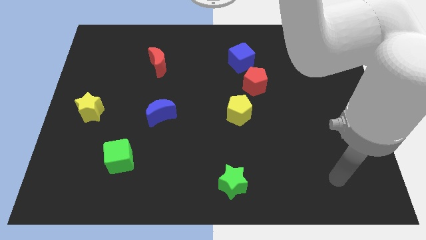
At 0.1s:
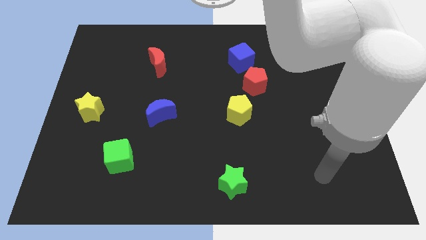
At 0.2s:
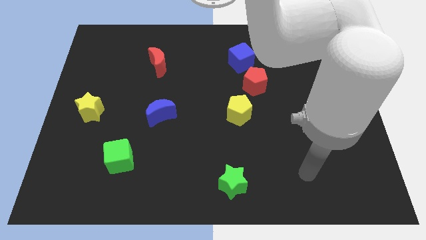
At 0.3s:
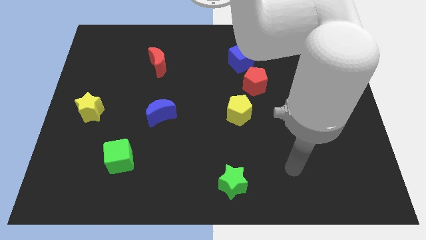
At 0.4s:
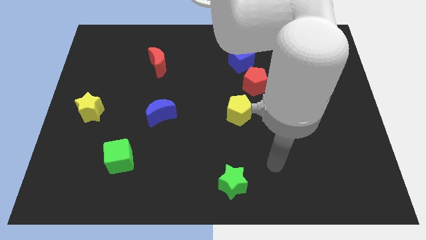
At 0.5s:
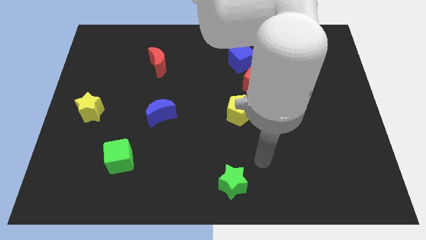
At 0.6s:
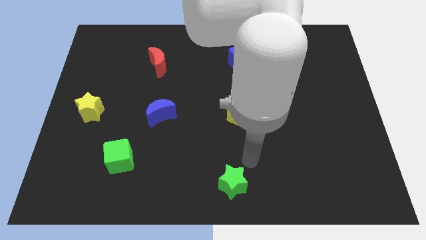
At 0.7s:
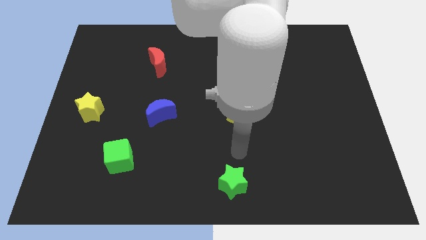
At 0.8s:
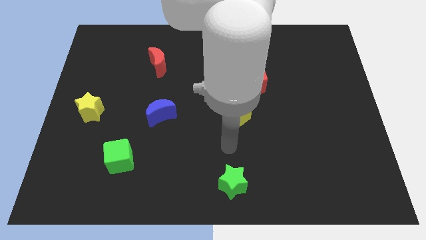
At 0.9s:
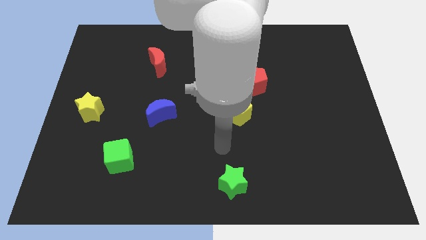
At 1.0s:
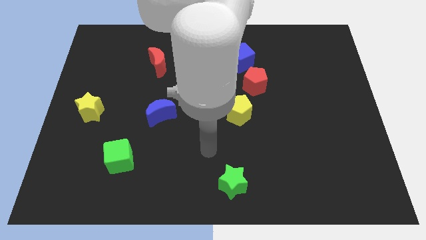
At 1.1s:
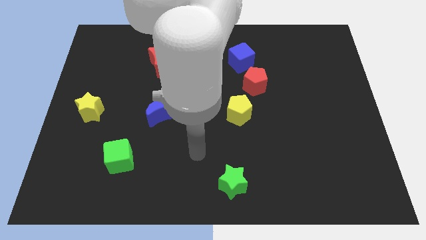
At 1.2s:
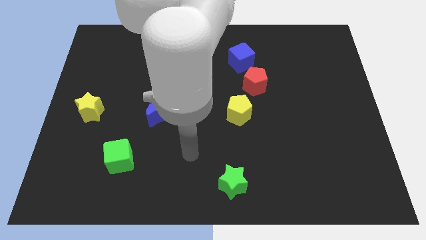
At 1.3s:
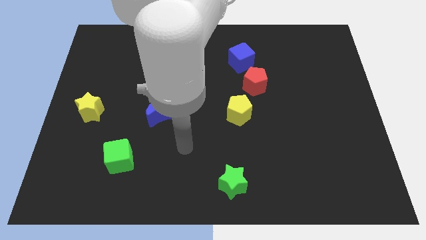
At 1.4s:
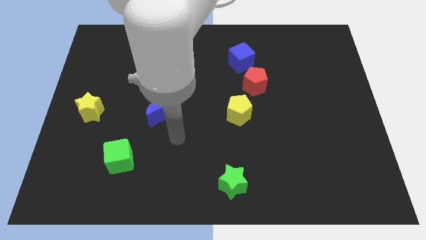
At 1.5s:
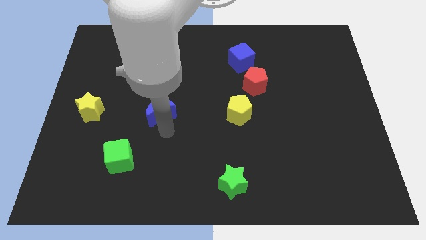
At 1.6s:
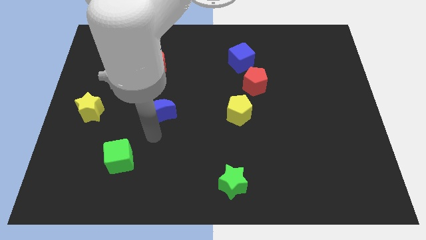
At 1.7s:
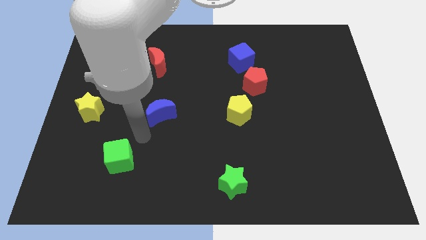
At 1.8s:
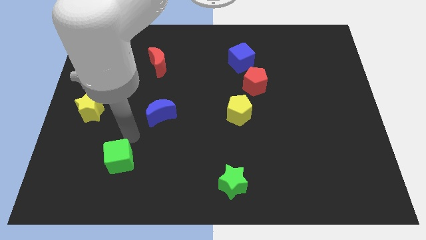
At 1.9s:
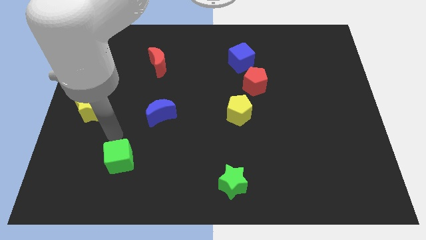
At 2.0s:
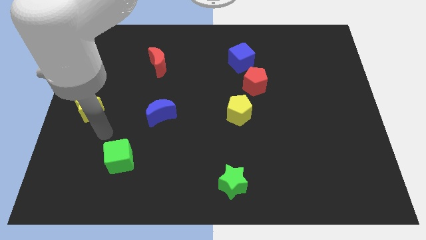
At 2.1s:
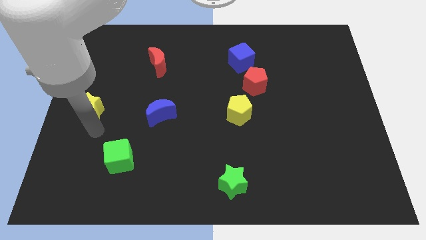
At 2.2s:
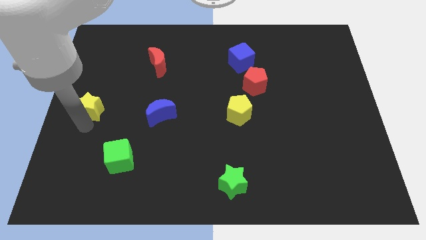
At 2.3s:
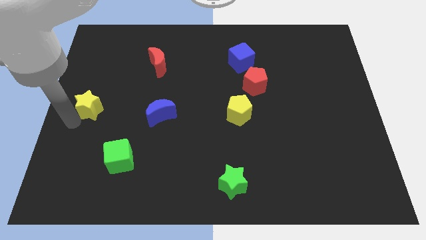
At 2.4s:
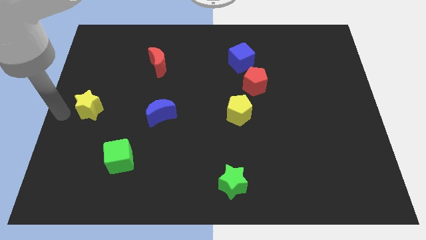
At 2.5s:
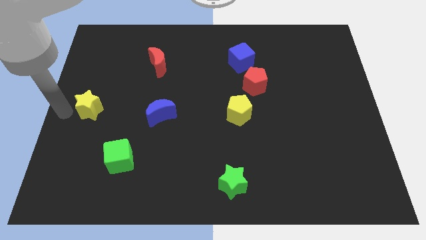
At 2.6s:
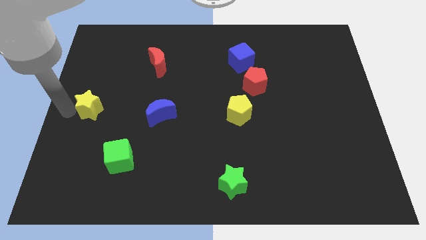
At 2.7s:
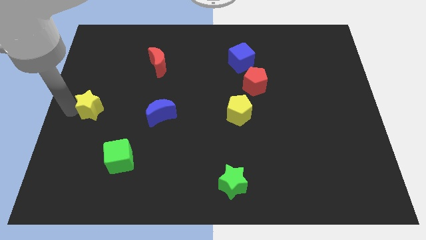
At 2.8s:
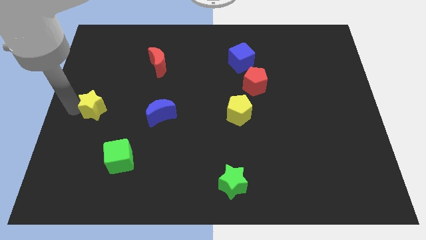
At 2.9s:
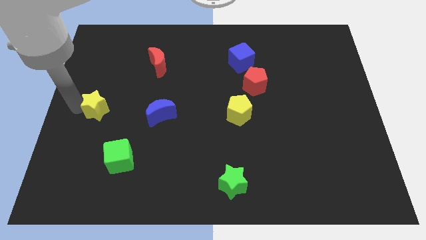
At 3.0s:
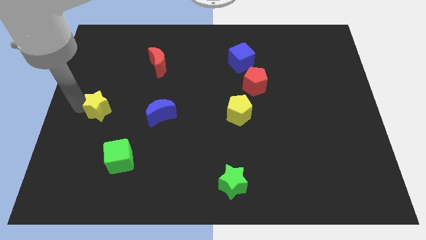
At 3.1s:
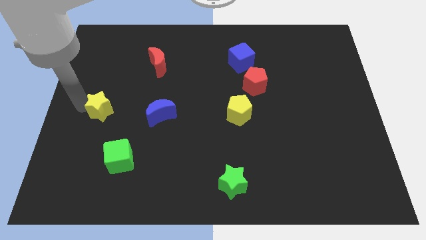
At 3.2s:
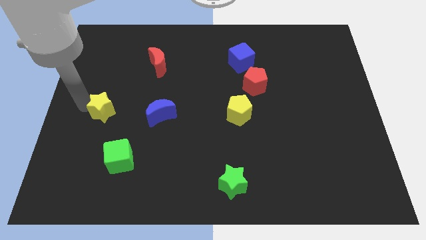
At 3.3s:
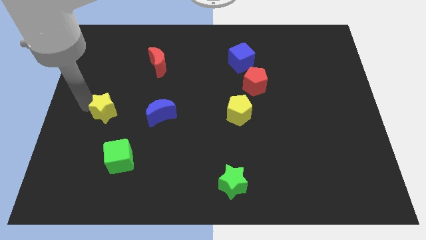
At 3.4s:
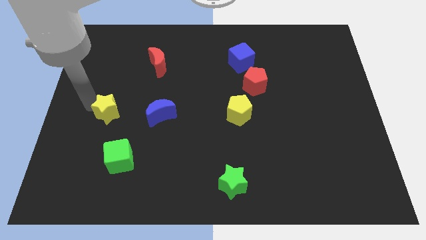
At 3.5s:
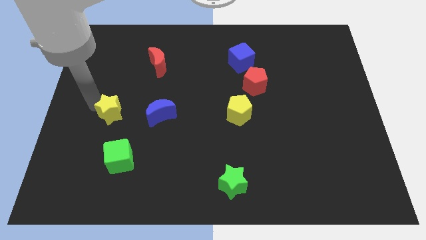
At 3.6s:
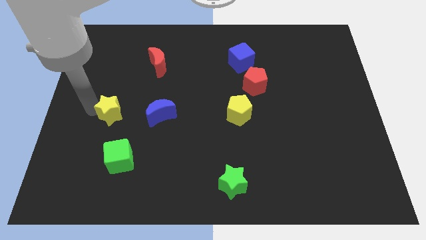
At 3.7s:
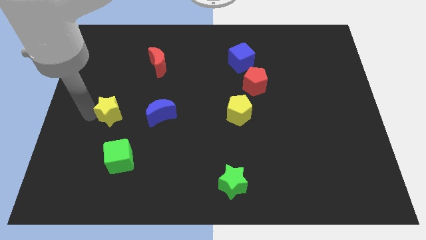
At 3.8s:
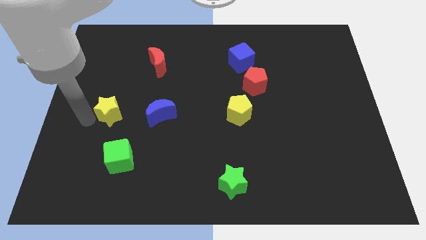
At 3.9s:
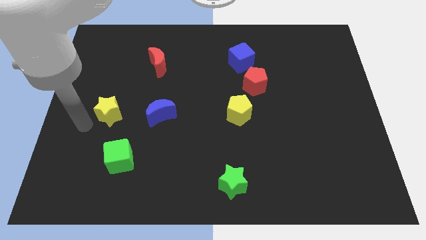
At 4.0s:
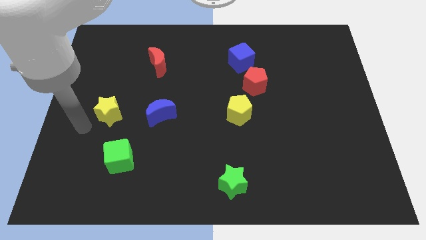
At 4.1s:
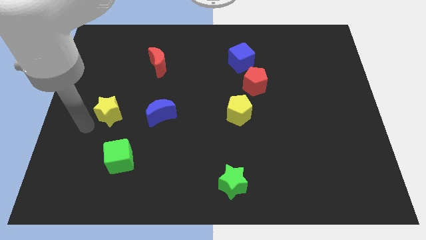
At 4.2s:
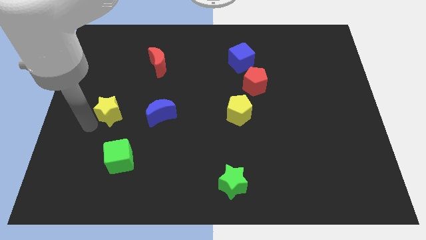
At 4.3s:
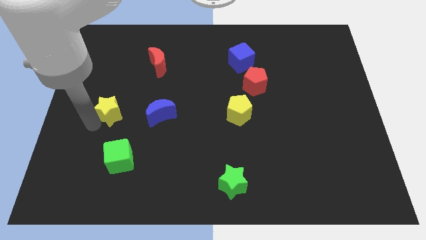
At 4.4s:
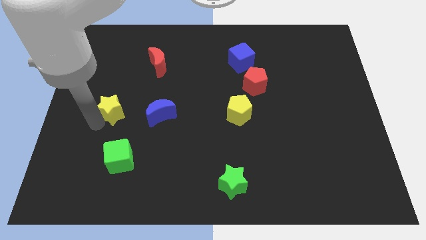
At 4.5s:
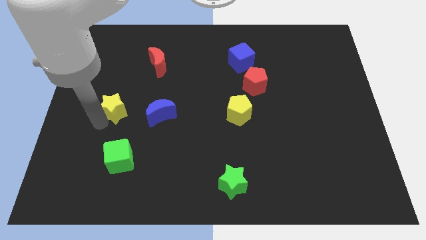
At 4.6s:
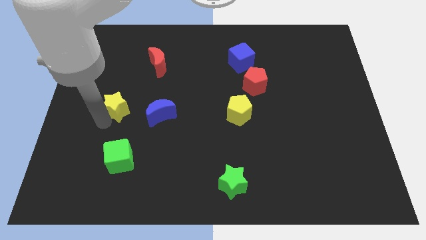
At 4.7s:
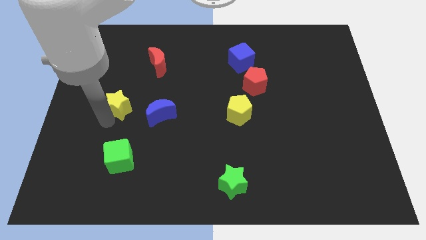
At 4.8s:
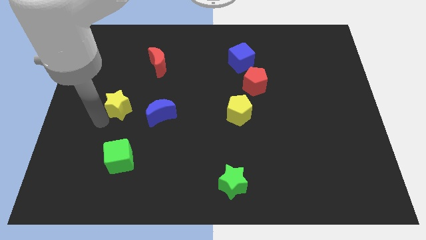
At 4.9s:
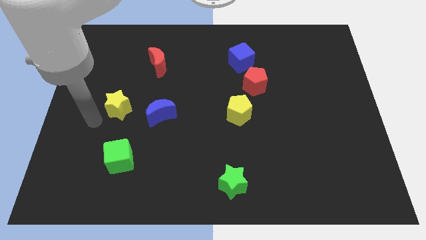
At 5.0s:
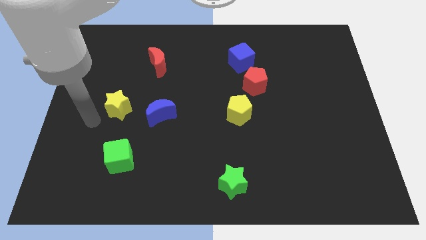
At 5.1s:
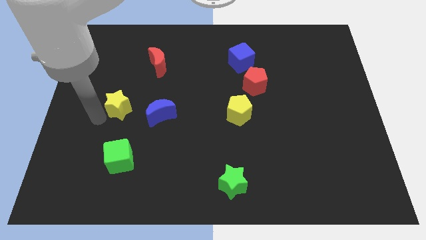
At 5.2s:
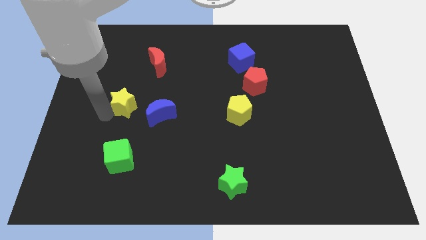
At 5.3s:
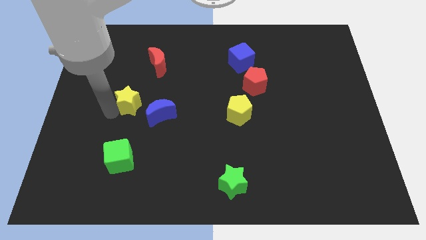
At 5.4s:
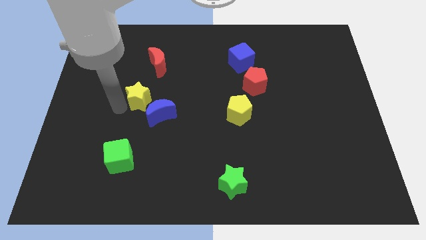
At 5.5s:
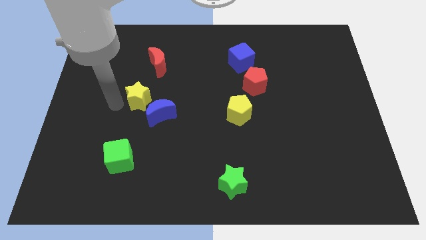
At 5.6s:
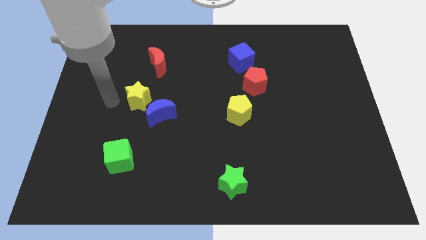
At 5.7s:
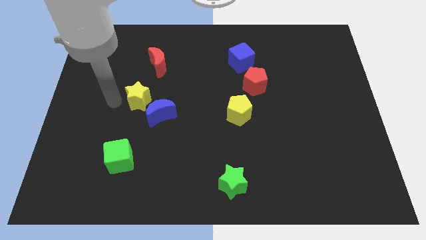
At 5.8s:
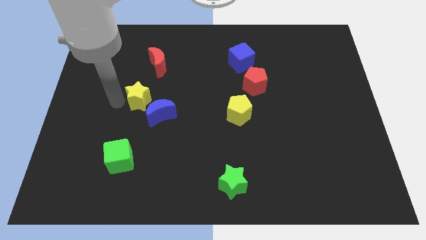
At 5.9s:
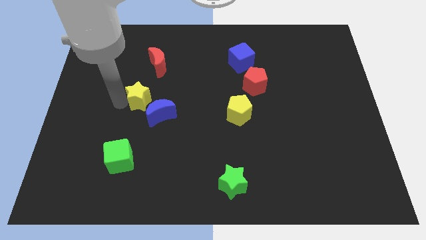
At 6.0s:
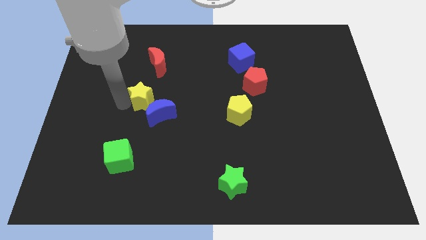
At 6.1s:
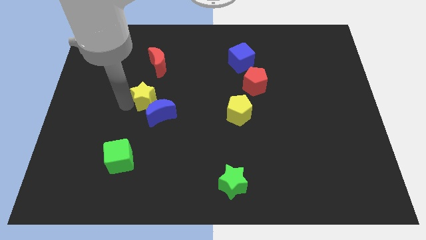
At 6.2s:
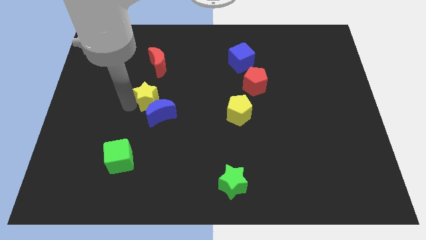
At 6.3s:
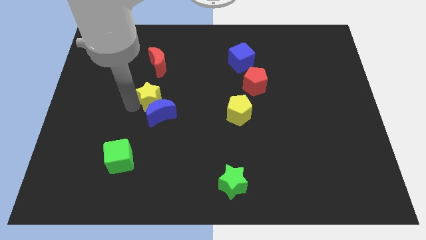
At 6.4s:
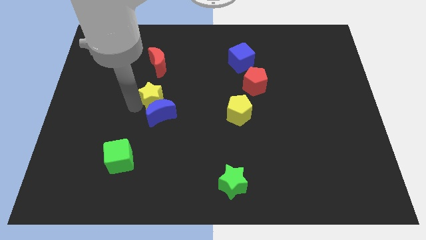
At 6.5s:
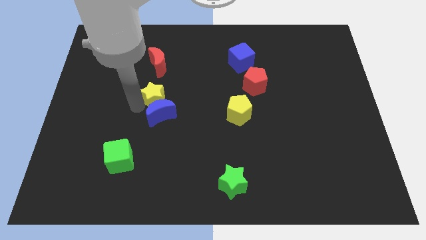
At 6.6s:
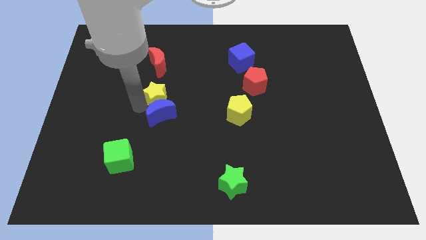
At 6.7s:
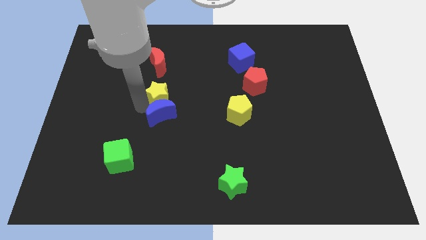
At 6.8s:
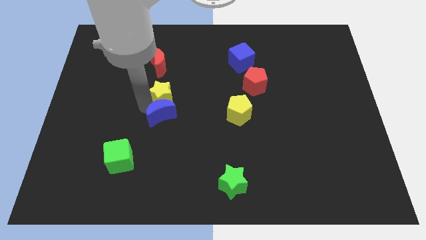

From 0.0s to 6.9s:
put the yellow star to the center of the board
